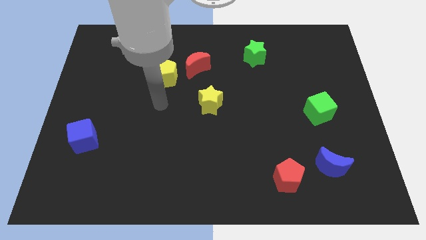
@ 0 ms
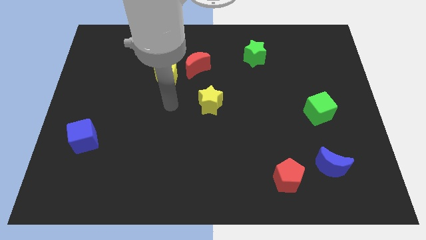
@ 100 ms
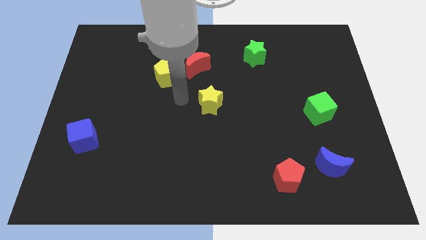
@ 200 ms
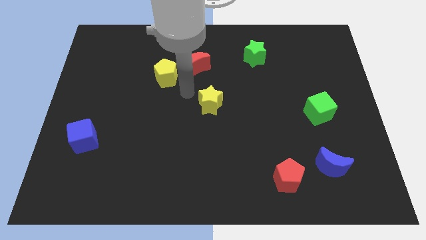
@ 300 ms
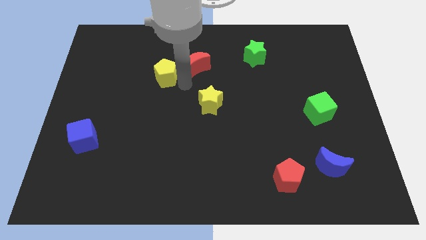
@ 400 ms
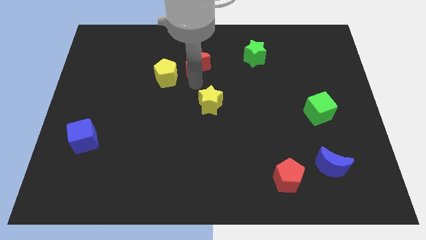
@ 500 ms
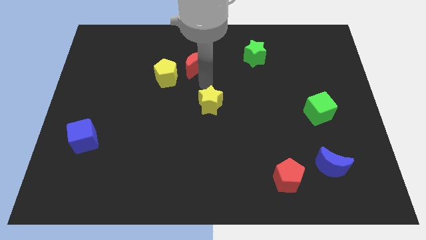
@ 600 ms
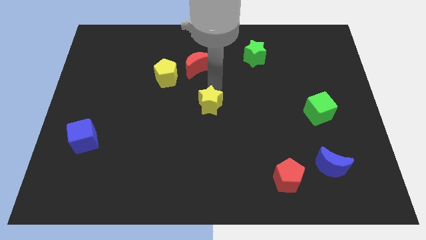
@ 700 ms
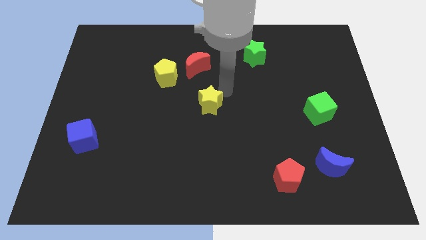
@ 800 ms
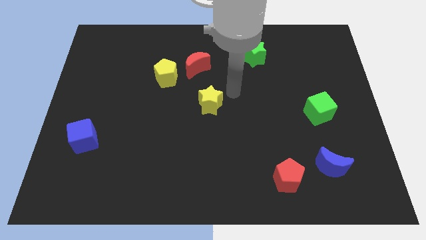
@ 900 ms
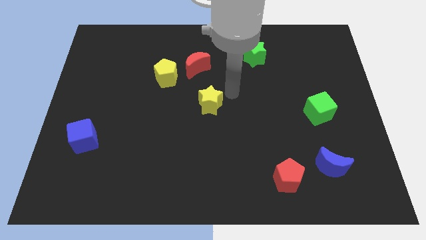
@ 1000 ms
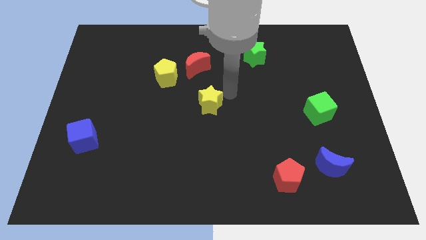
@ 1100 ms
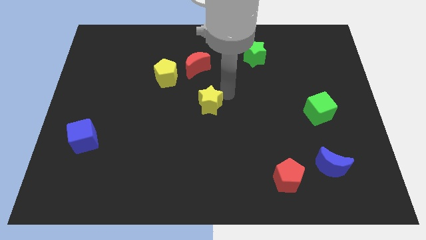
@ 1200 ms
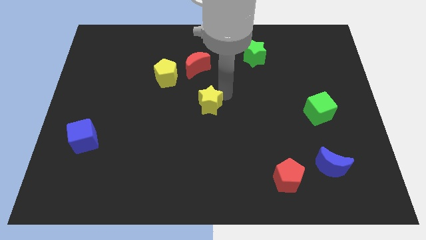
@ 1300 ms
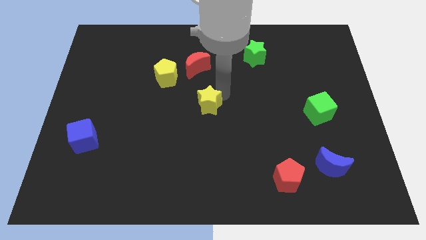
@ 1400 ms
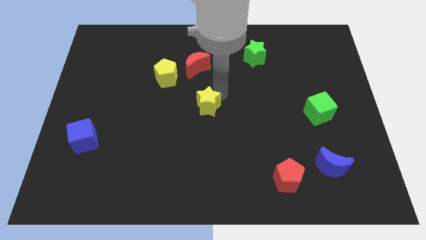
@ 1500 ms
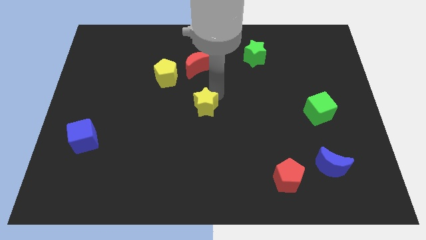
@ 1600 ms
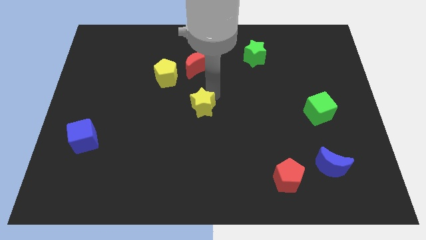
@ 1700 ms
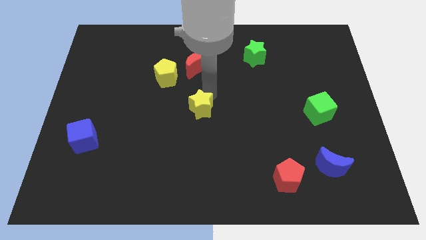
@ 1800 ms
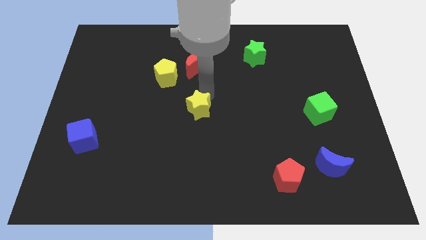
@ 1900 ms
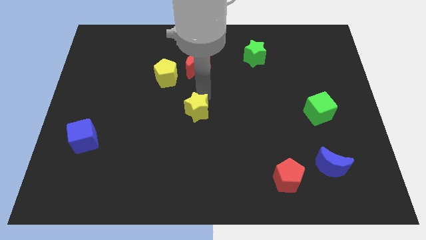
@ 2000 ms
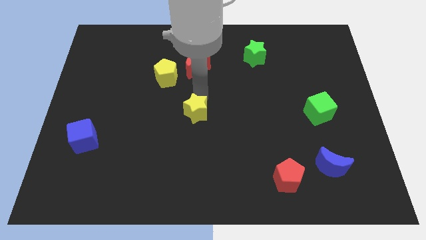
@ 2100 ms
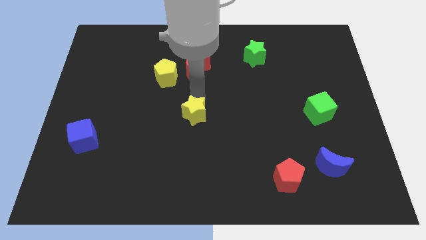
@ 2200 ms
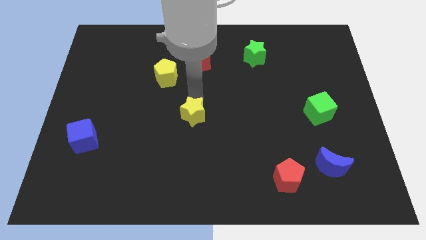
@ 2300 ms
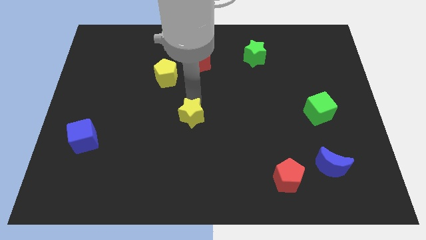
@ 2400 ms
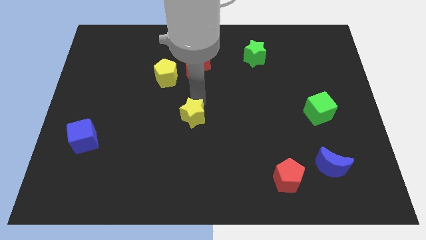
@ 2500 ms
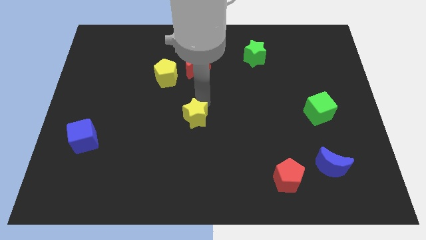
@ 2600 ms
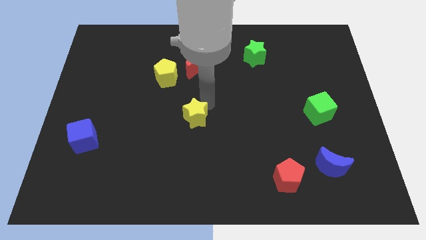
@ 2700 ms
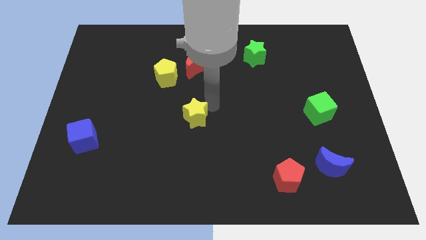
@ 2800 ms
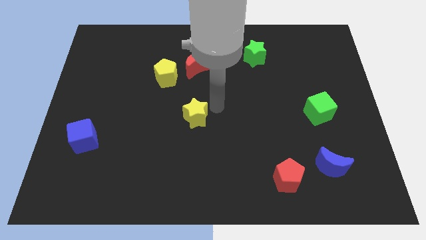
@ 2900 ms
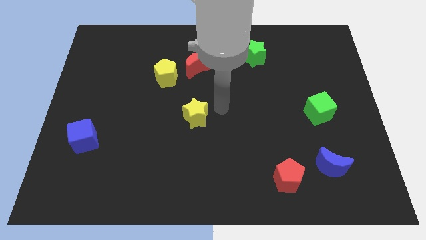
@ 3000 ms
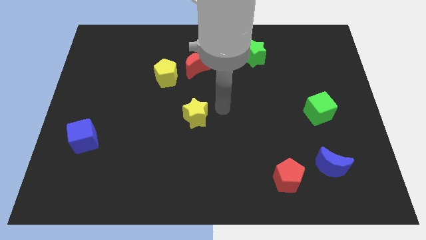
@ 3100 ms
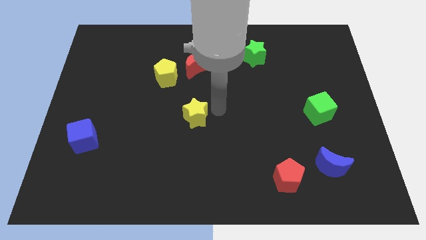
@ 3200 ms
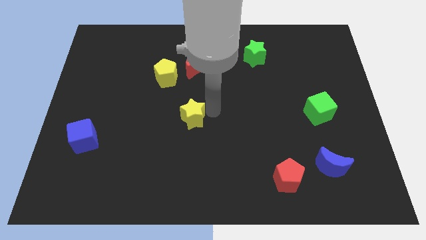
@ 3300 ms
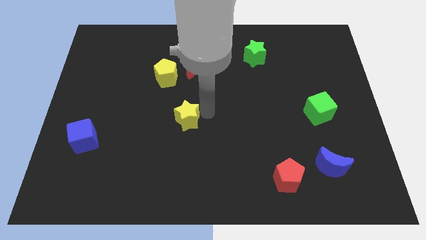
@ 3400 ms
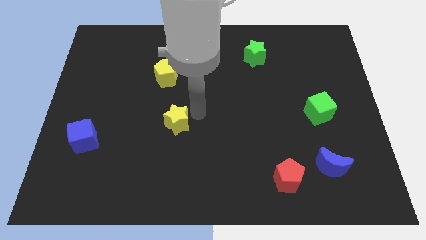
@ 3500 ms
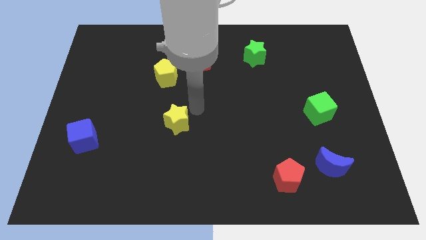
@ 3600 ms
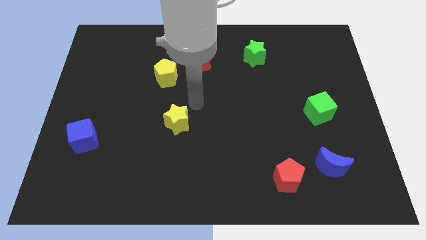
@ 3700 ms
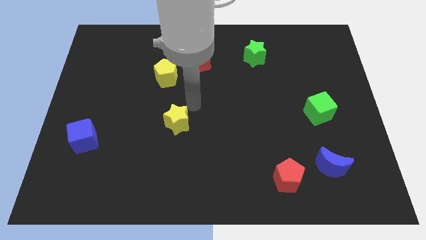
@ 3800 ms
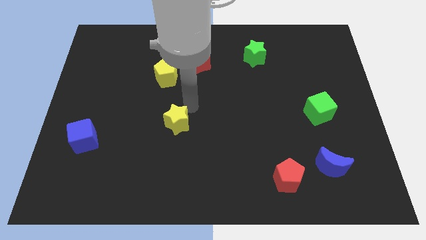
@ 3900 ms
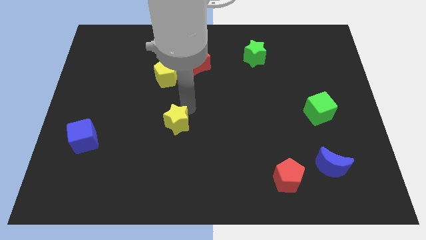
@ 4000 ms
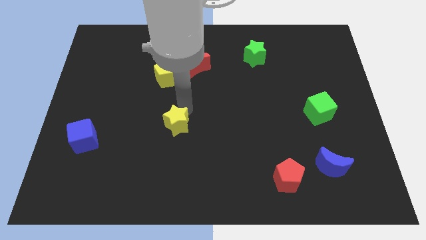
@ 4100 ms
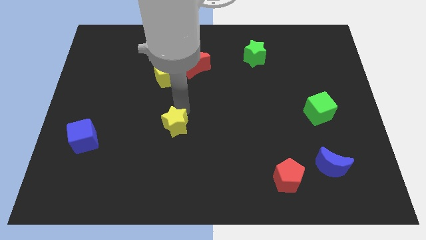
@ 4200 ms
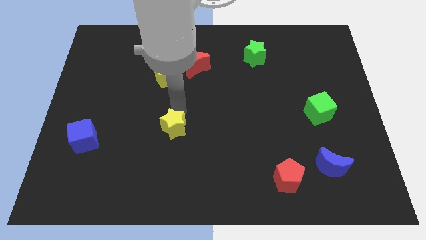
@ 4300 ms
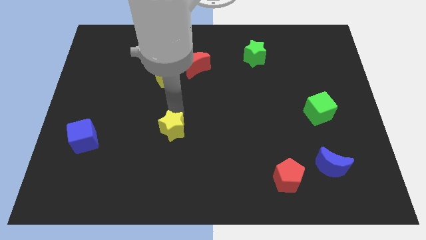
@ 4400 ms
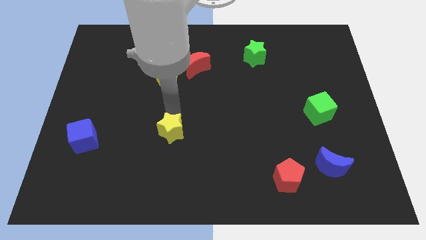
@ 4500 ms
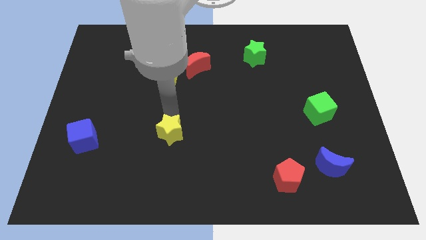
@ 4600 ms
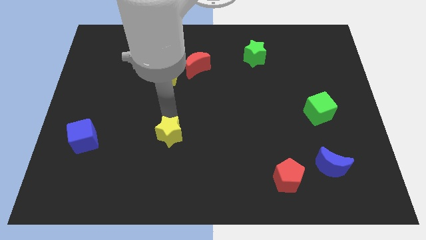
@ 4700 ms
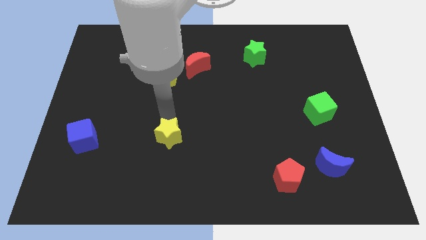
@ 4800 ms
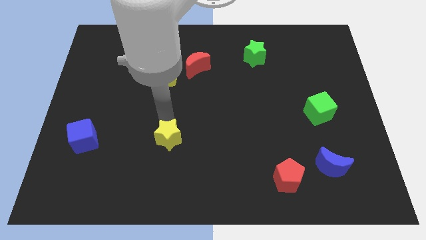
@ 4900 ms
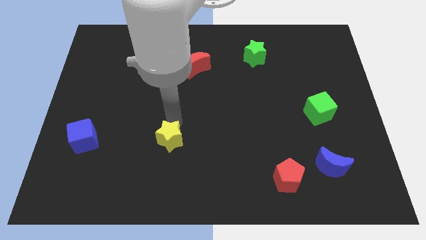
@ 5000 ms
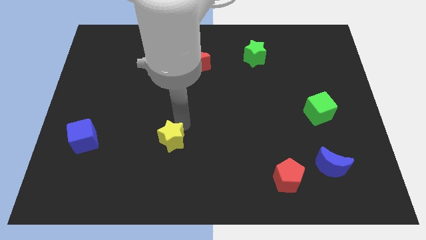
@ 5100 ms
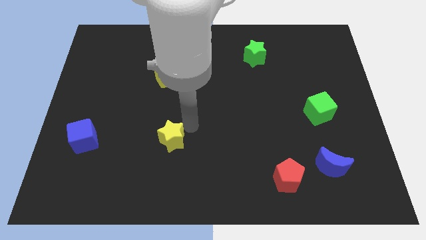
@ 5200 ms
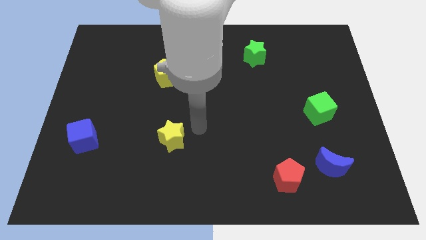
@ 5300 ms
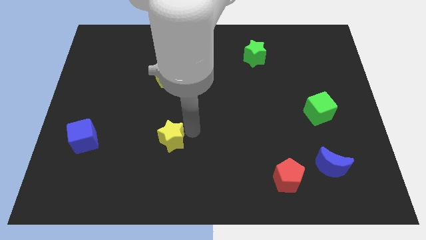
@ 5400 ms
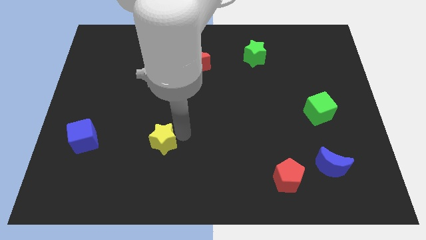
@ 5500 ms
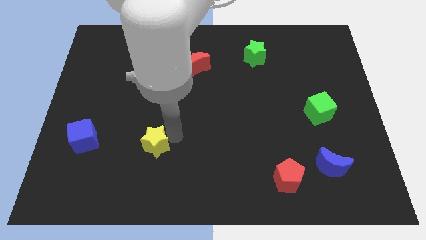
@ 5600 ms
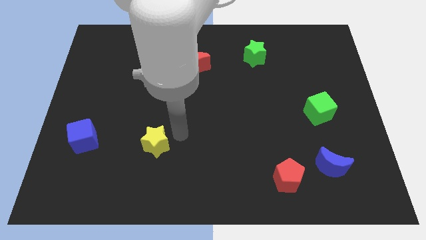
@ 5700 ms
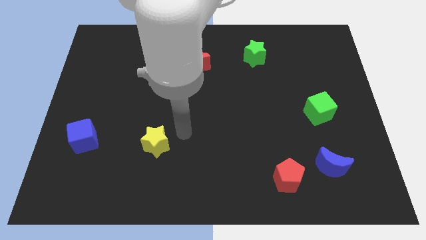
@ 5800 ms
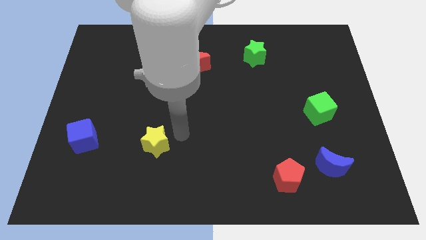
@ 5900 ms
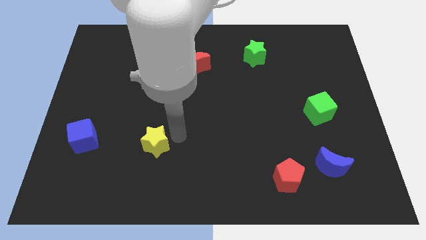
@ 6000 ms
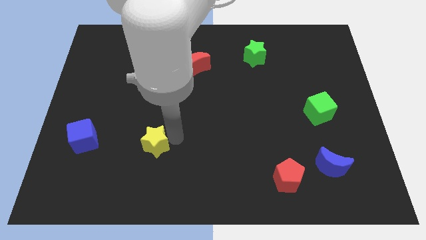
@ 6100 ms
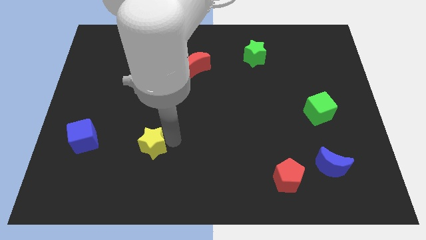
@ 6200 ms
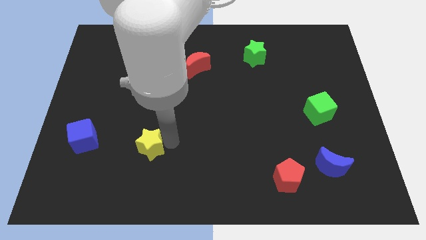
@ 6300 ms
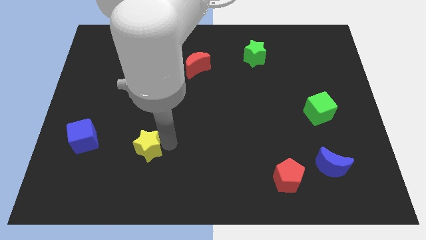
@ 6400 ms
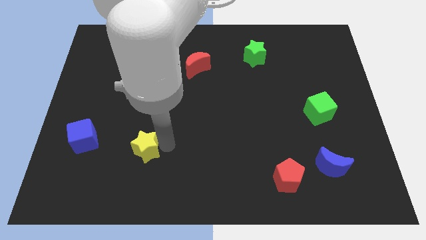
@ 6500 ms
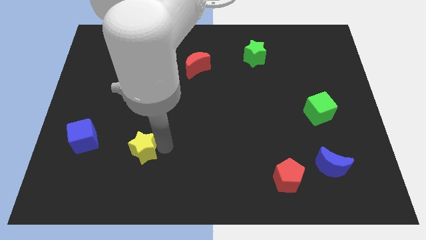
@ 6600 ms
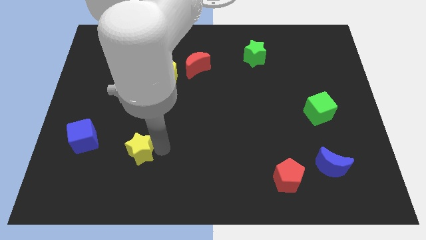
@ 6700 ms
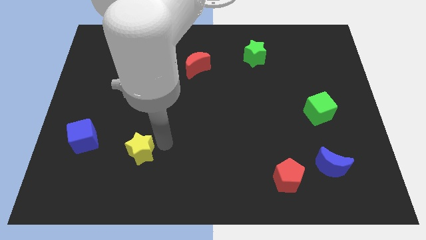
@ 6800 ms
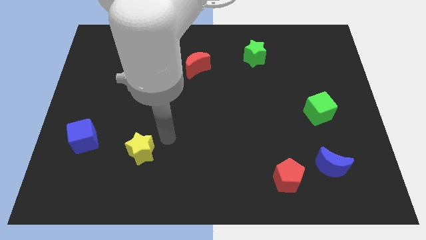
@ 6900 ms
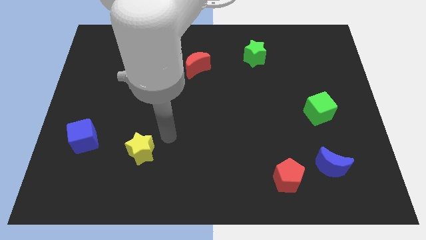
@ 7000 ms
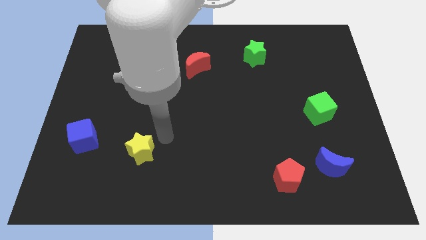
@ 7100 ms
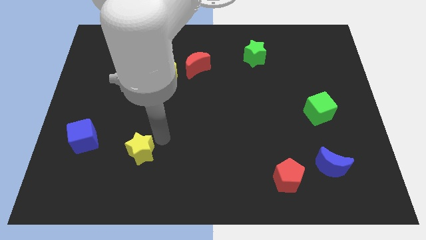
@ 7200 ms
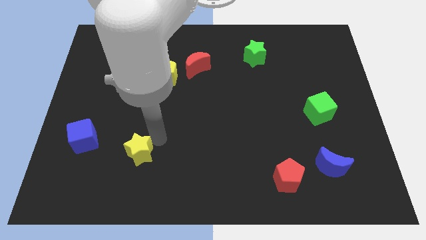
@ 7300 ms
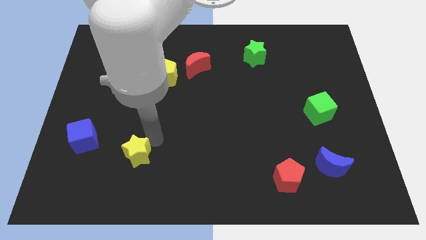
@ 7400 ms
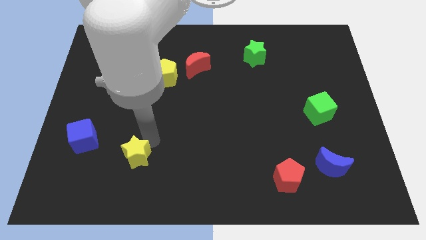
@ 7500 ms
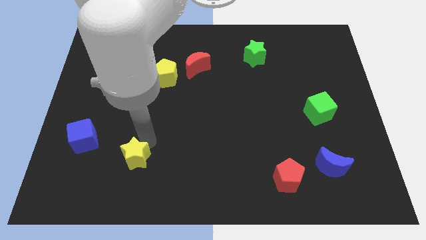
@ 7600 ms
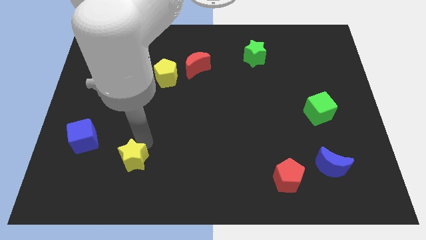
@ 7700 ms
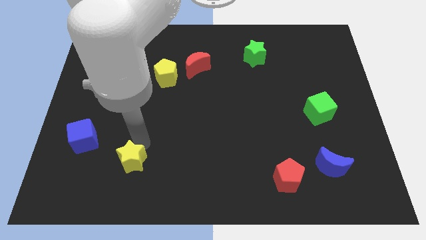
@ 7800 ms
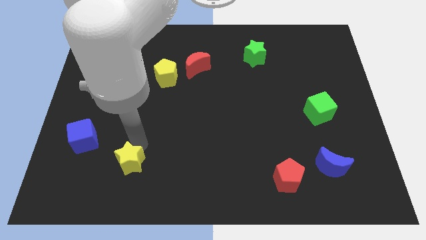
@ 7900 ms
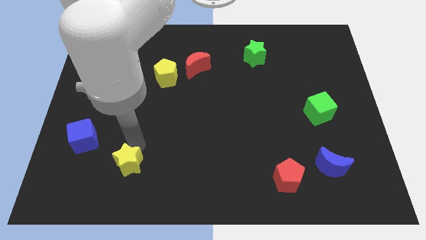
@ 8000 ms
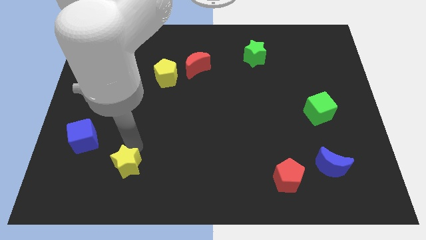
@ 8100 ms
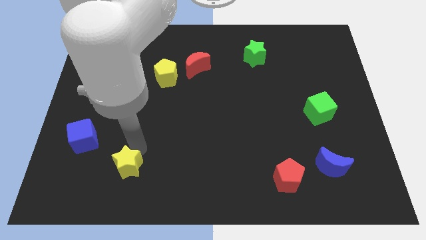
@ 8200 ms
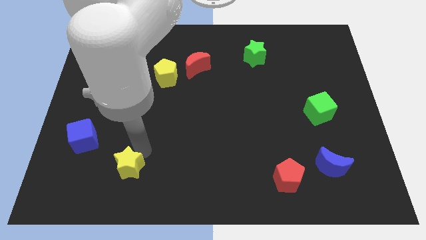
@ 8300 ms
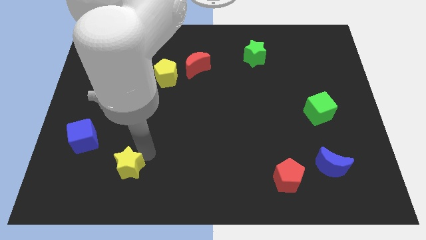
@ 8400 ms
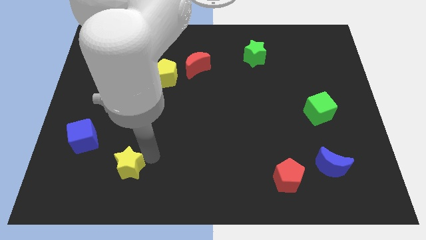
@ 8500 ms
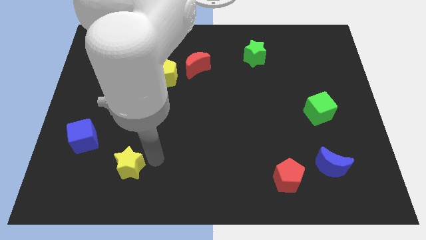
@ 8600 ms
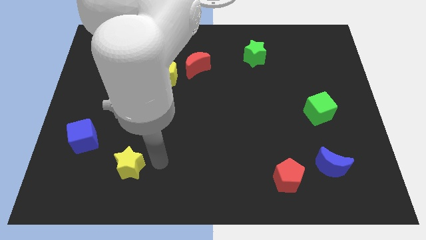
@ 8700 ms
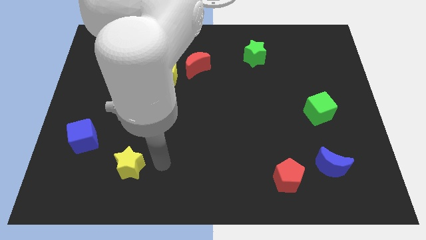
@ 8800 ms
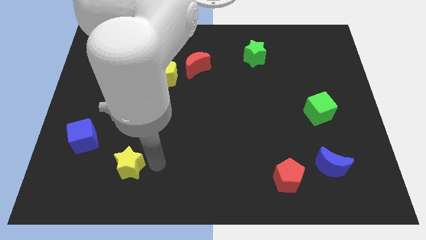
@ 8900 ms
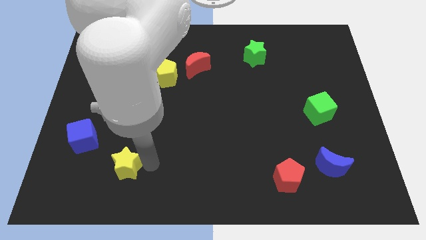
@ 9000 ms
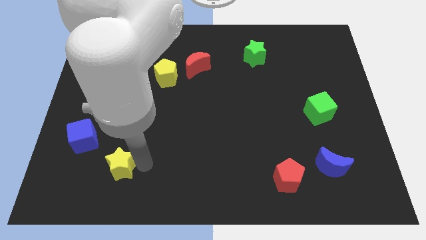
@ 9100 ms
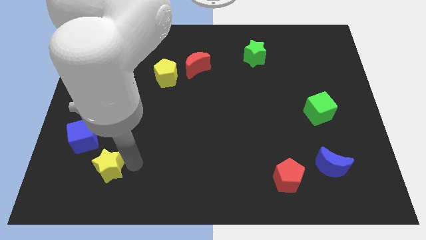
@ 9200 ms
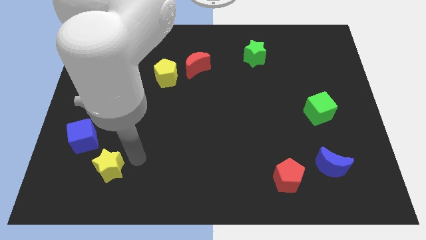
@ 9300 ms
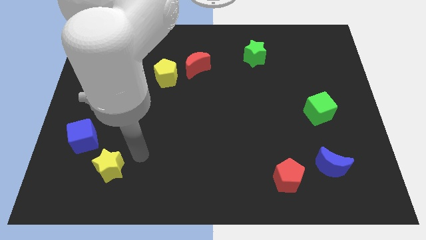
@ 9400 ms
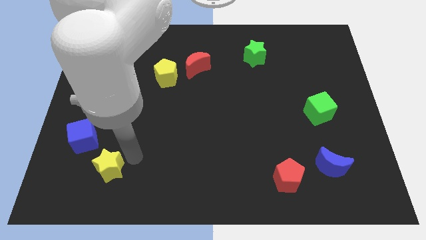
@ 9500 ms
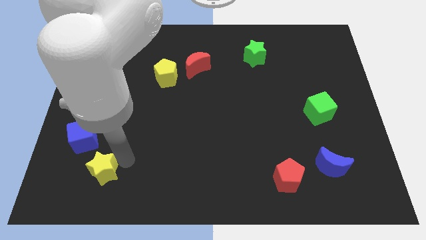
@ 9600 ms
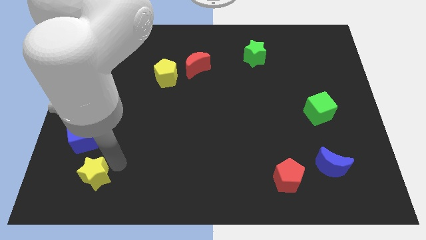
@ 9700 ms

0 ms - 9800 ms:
put the yellow star to the bottom side of the blue cube
